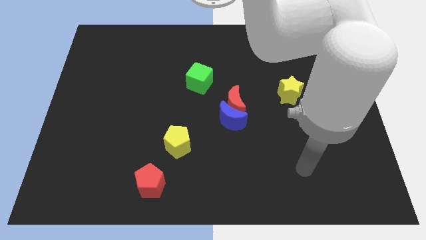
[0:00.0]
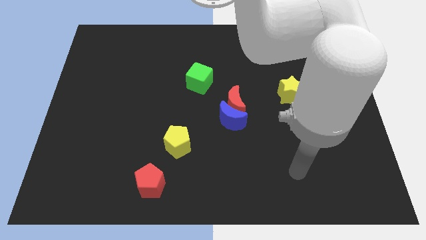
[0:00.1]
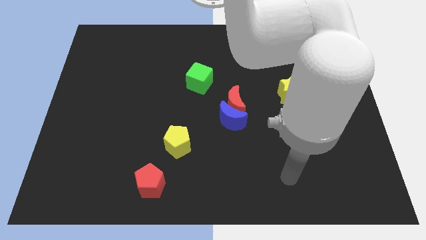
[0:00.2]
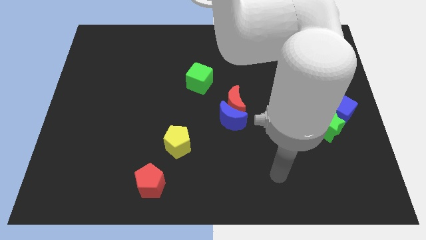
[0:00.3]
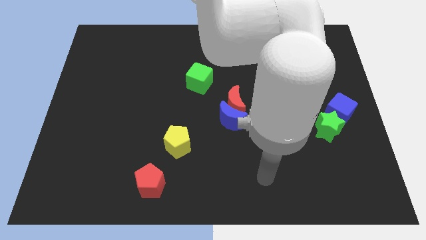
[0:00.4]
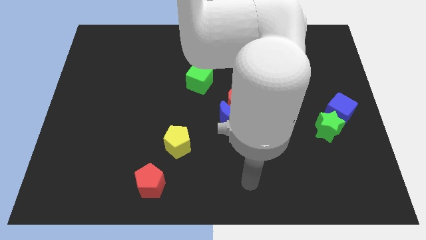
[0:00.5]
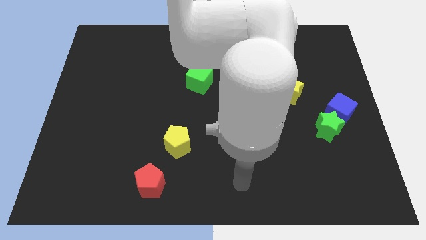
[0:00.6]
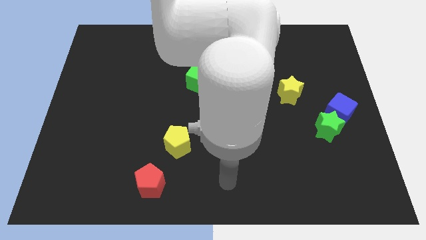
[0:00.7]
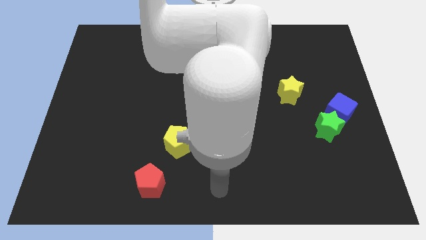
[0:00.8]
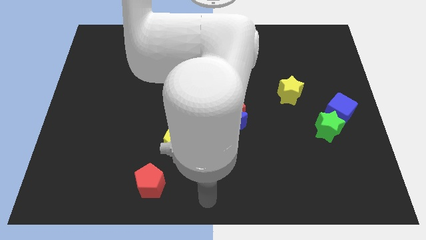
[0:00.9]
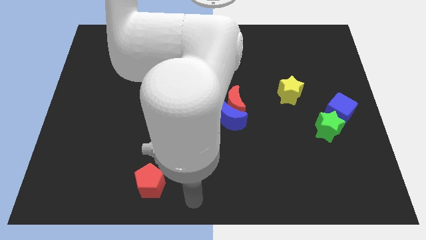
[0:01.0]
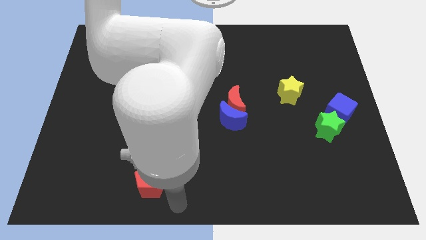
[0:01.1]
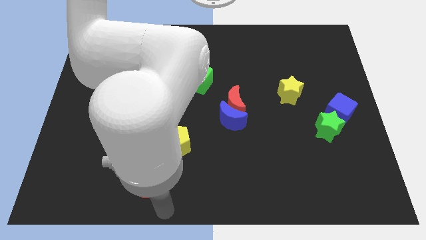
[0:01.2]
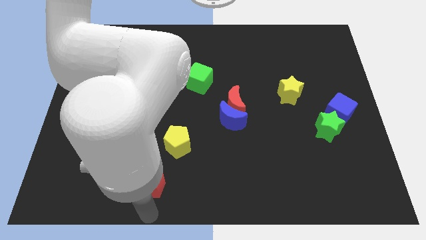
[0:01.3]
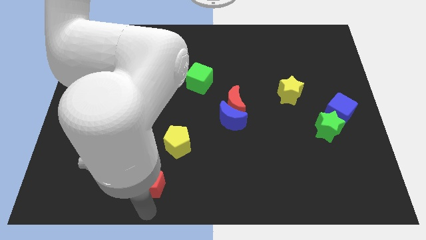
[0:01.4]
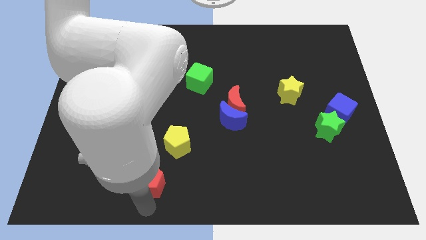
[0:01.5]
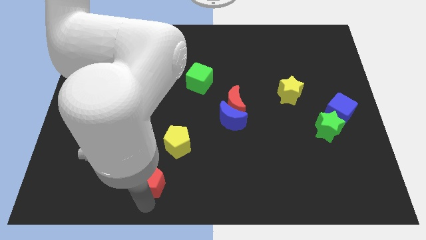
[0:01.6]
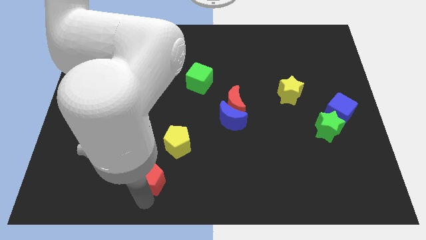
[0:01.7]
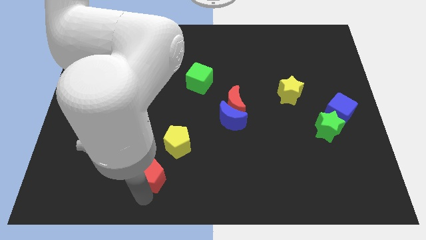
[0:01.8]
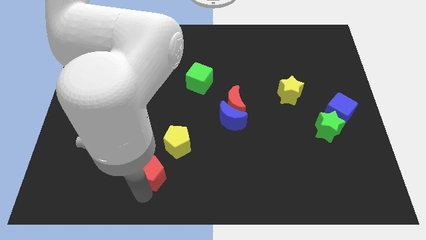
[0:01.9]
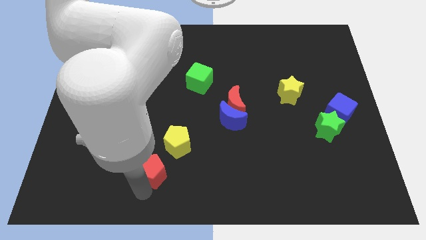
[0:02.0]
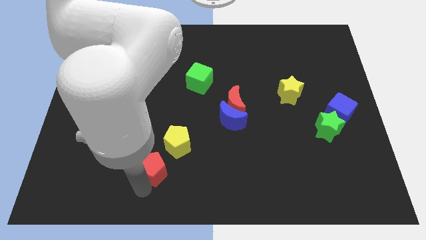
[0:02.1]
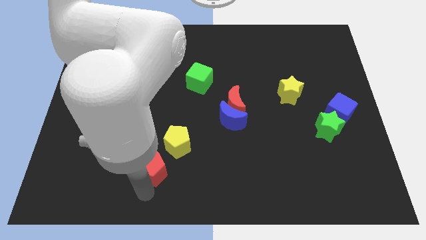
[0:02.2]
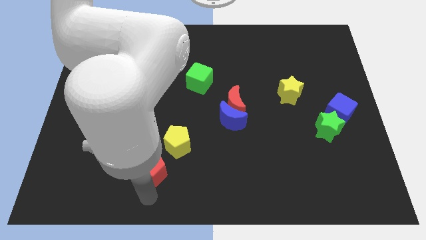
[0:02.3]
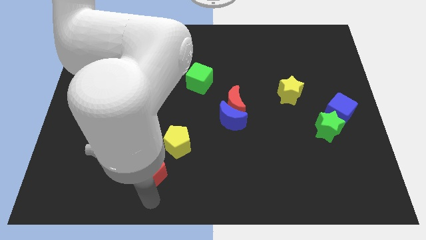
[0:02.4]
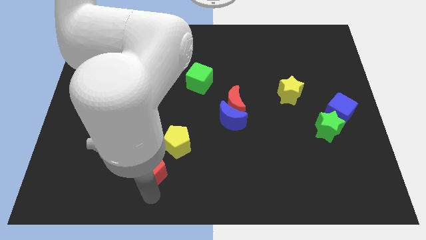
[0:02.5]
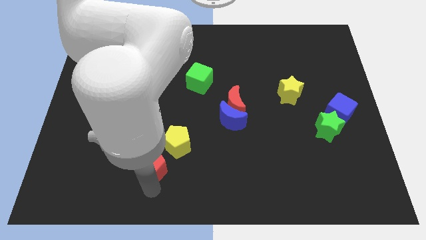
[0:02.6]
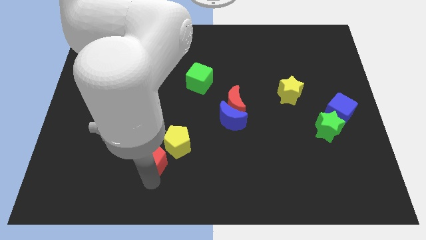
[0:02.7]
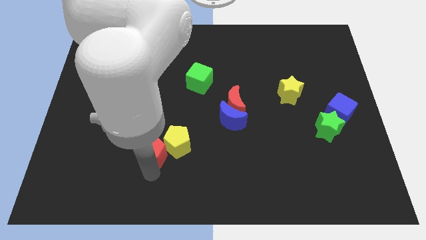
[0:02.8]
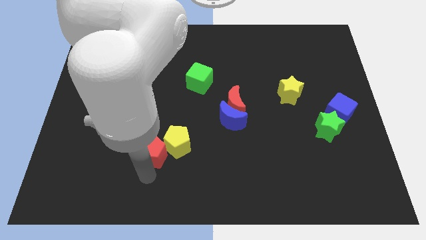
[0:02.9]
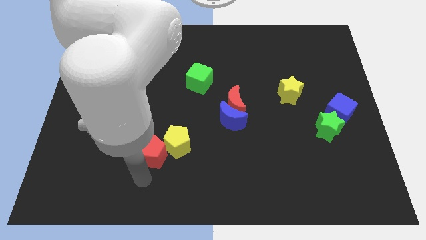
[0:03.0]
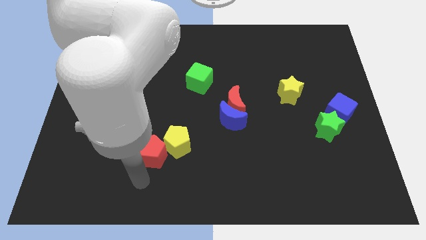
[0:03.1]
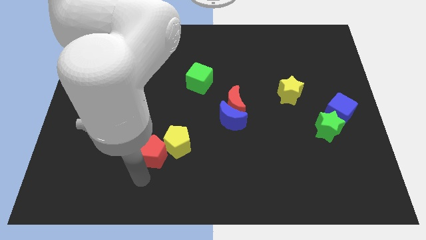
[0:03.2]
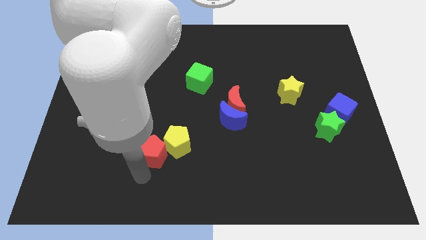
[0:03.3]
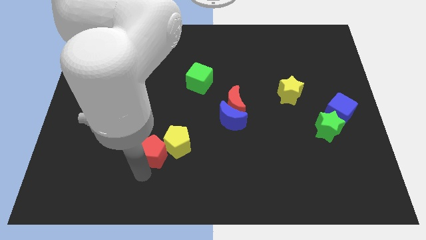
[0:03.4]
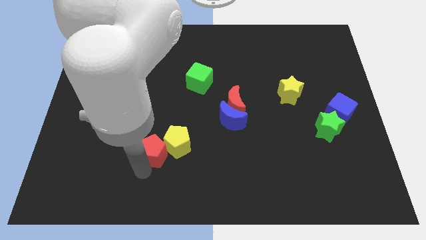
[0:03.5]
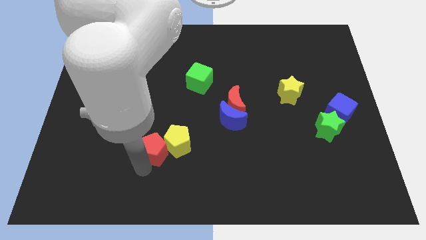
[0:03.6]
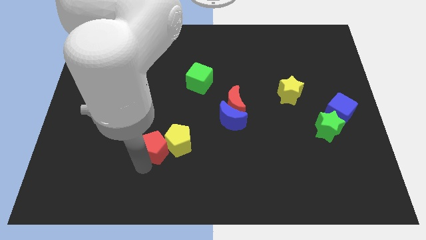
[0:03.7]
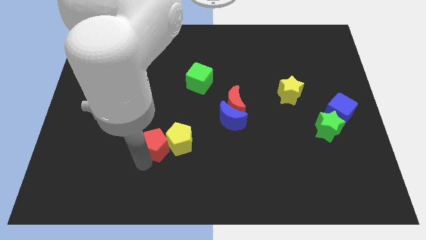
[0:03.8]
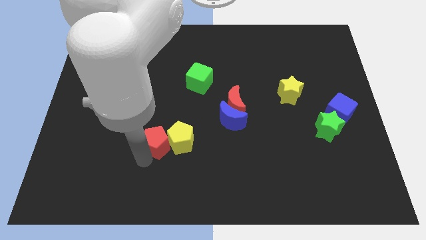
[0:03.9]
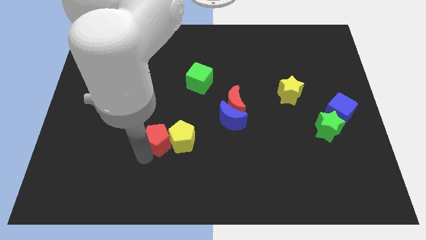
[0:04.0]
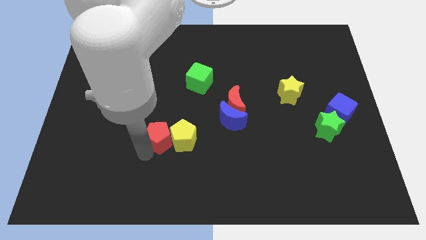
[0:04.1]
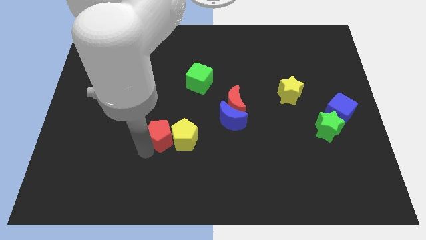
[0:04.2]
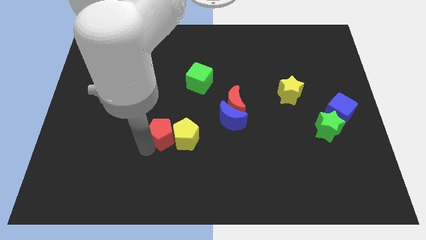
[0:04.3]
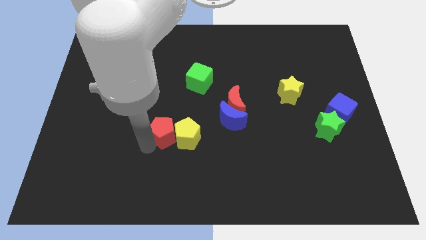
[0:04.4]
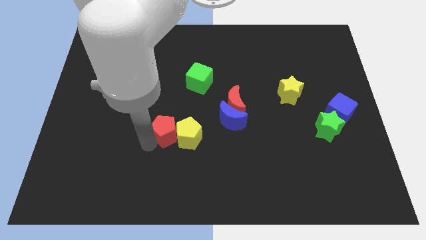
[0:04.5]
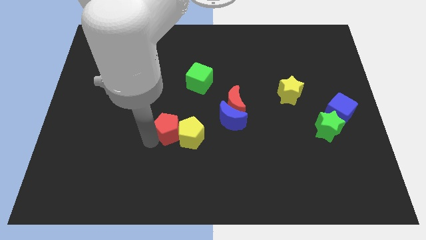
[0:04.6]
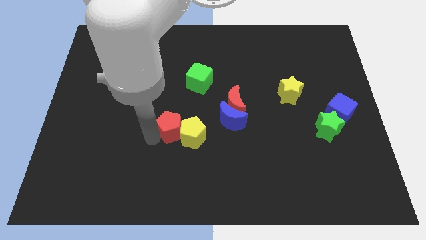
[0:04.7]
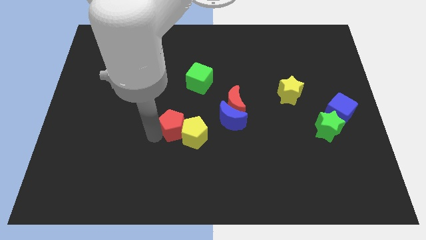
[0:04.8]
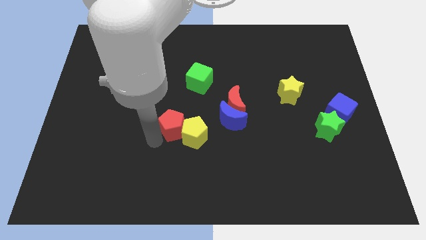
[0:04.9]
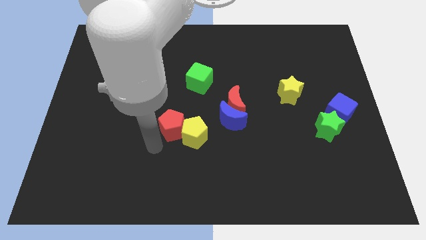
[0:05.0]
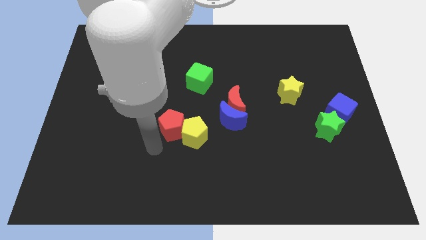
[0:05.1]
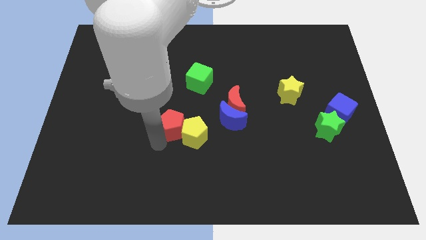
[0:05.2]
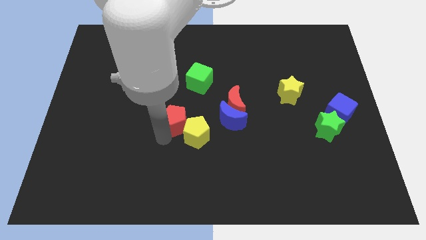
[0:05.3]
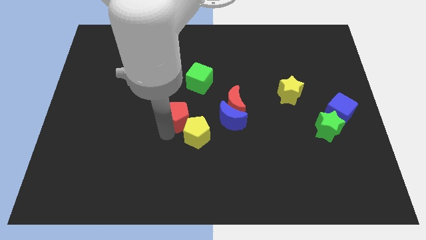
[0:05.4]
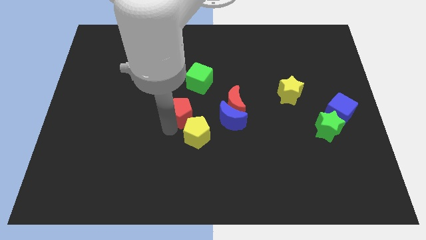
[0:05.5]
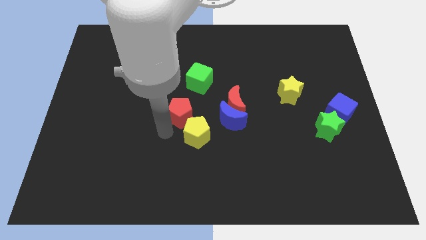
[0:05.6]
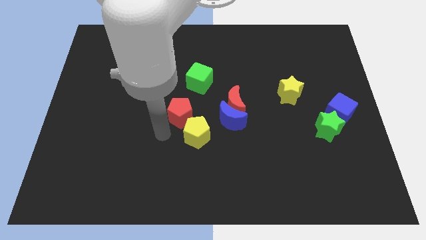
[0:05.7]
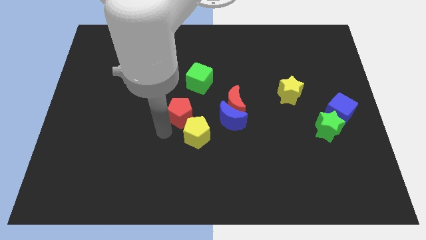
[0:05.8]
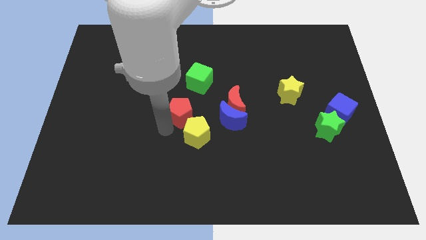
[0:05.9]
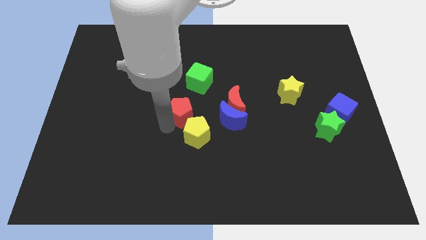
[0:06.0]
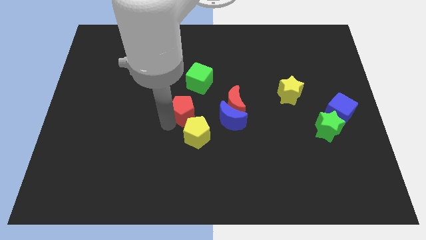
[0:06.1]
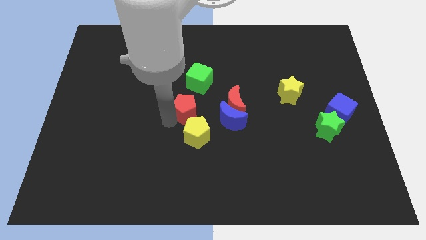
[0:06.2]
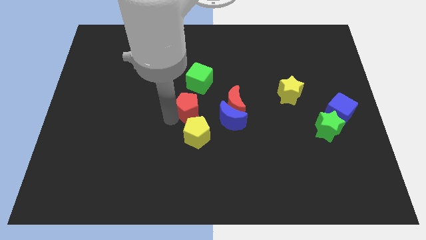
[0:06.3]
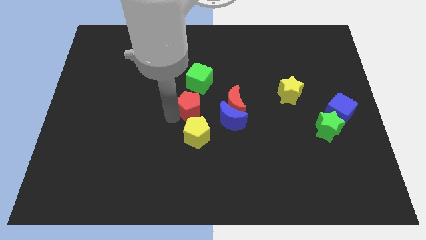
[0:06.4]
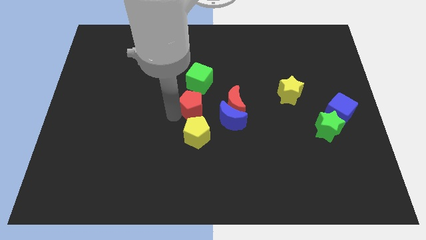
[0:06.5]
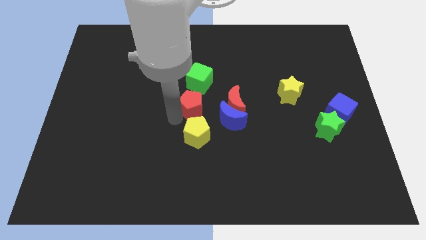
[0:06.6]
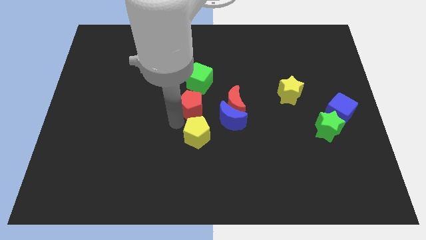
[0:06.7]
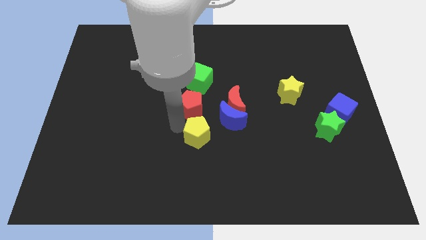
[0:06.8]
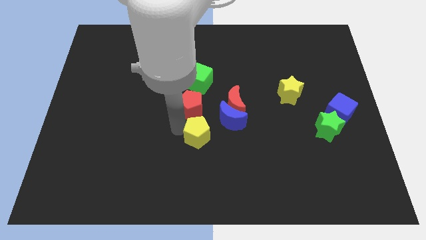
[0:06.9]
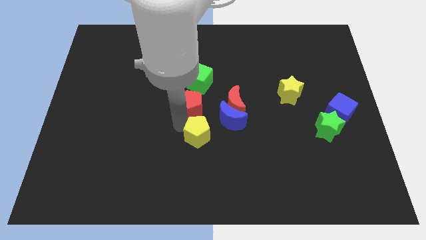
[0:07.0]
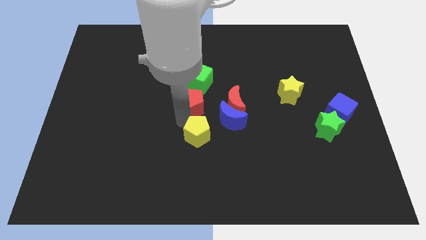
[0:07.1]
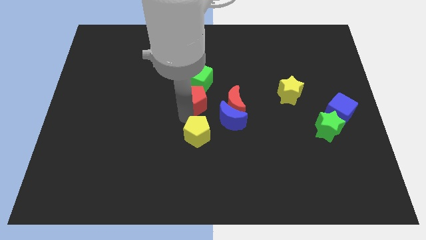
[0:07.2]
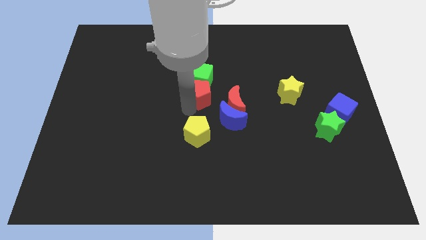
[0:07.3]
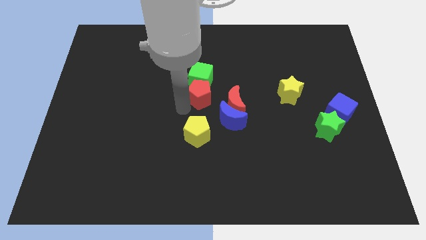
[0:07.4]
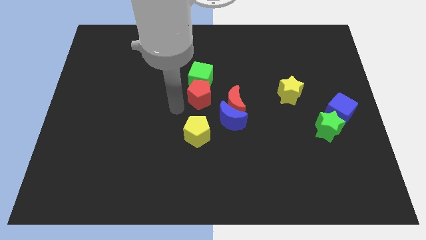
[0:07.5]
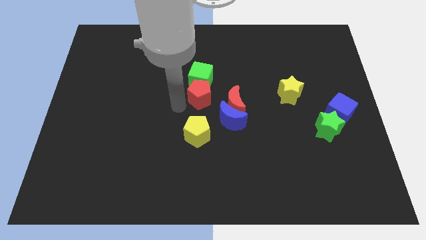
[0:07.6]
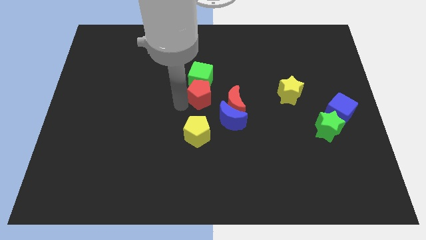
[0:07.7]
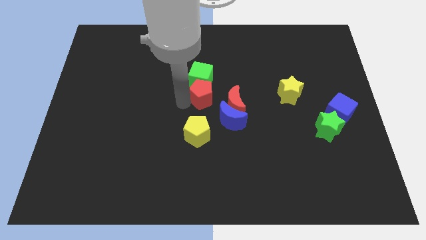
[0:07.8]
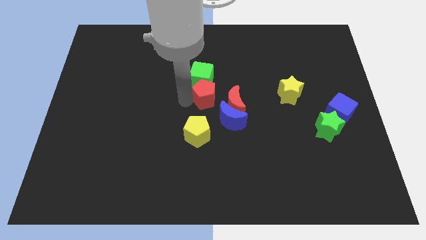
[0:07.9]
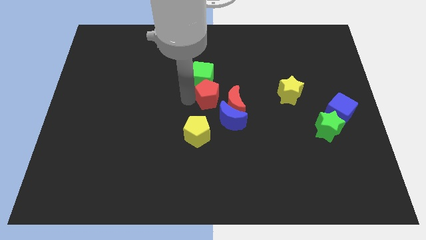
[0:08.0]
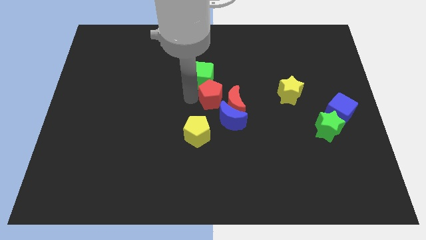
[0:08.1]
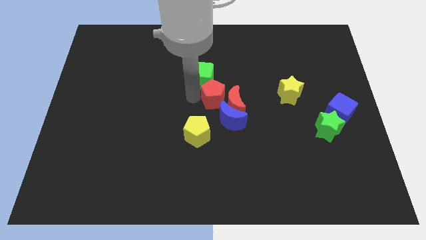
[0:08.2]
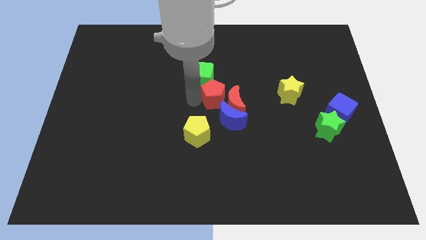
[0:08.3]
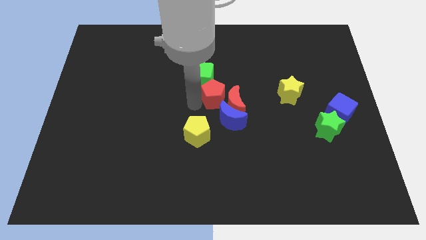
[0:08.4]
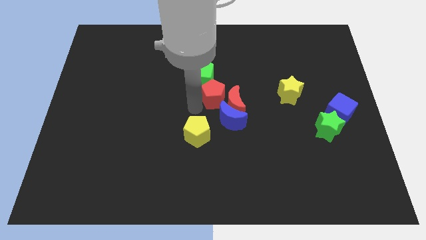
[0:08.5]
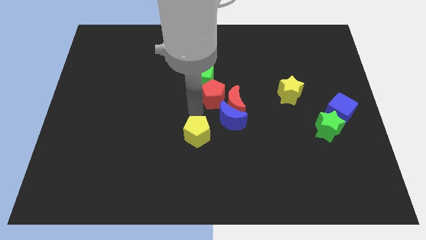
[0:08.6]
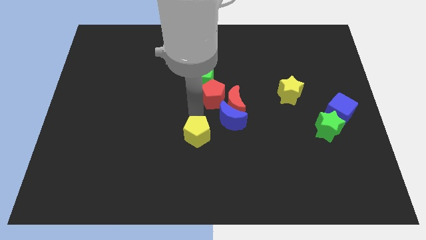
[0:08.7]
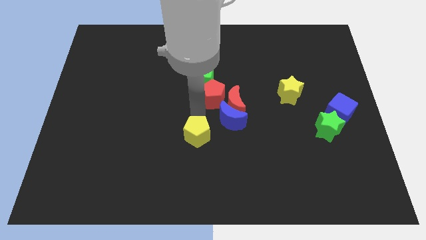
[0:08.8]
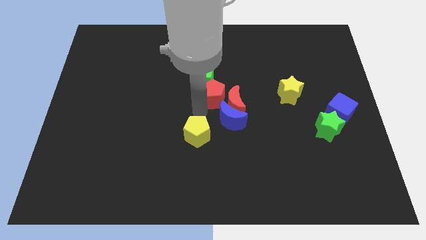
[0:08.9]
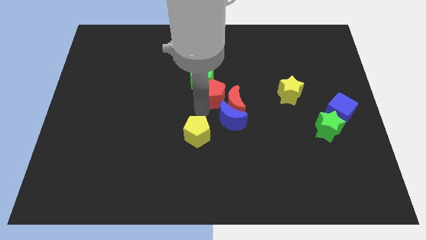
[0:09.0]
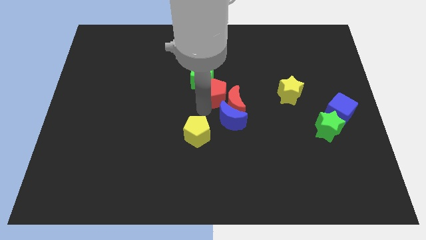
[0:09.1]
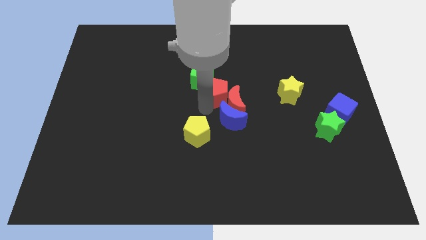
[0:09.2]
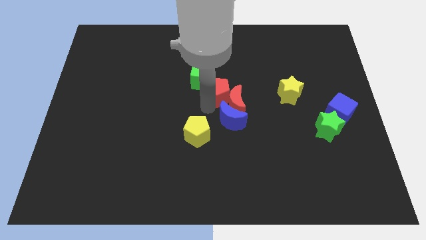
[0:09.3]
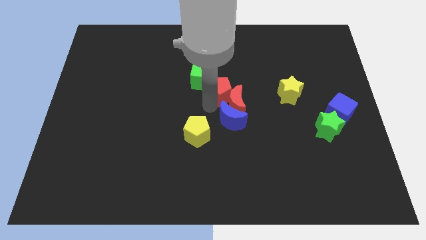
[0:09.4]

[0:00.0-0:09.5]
put the red pentagon right of the green cube
